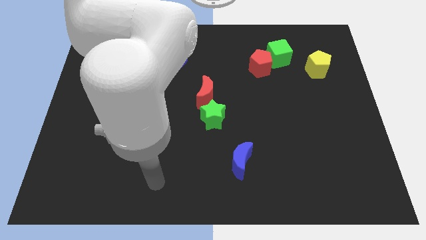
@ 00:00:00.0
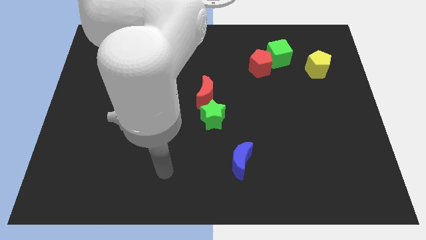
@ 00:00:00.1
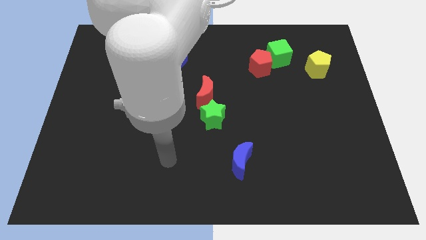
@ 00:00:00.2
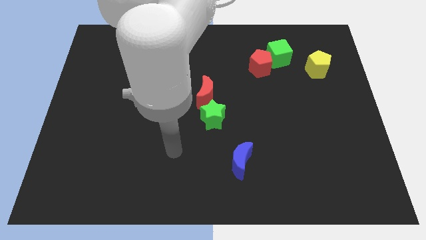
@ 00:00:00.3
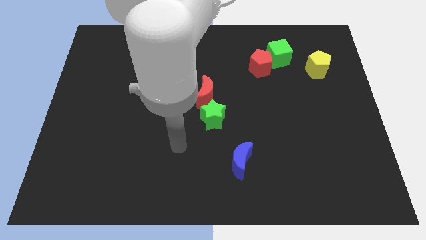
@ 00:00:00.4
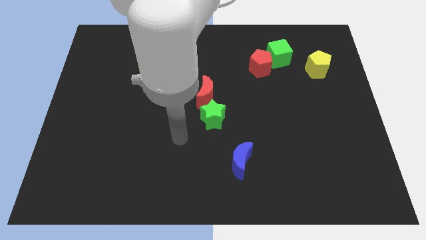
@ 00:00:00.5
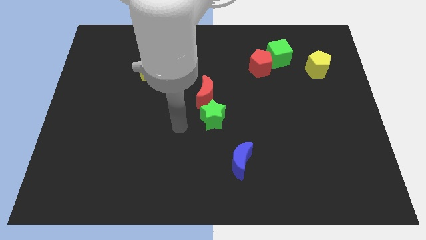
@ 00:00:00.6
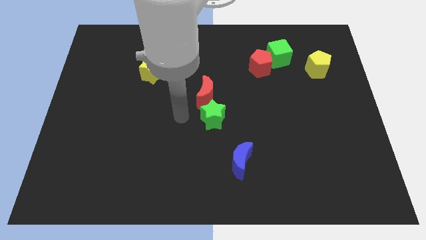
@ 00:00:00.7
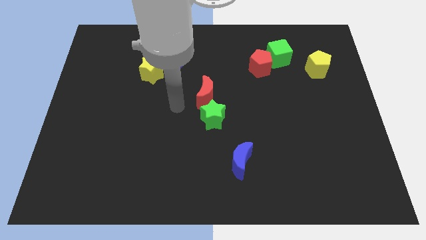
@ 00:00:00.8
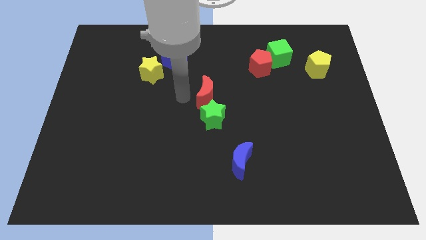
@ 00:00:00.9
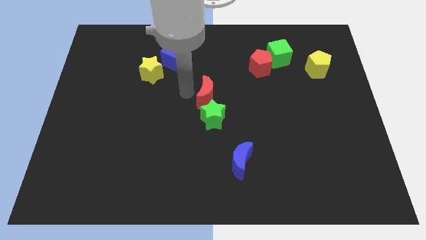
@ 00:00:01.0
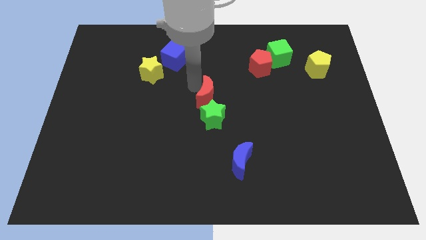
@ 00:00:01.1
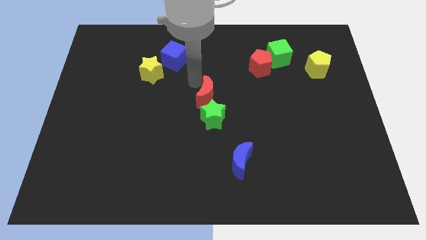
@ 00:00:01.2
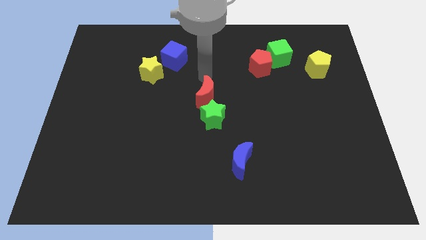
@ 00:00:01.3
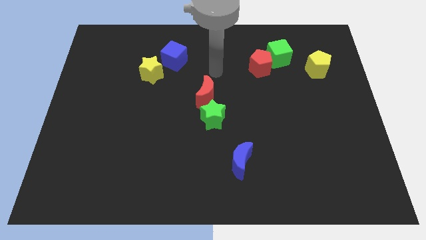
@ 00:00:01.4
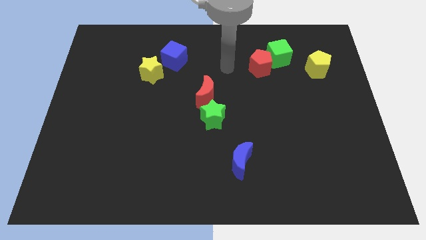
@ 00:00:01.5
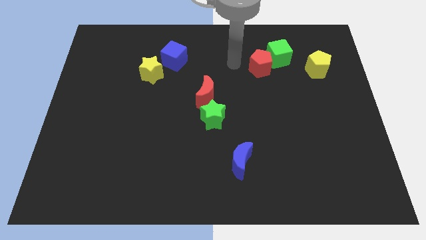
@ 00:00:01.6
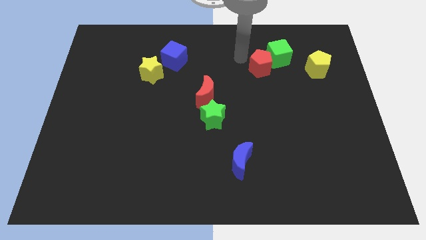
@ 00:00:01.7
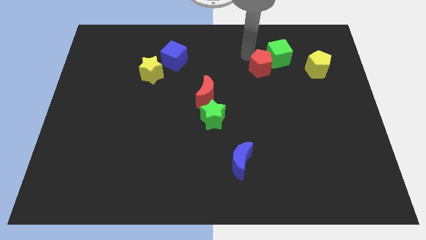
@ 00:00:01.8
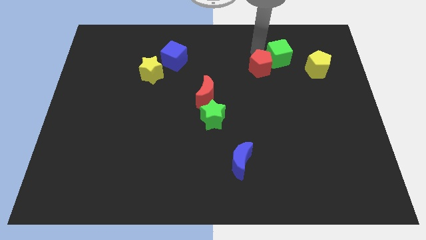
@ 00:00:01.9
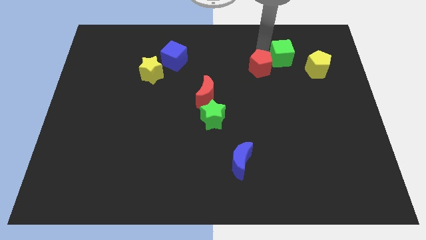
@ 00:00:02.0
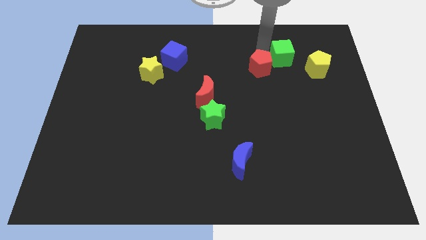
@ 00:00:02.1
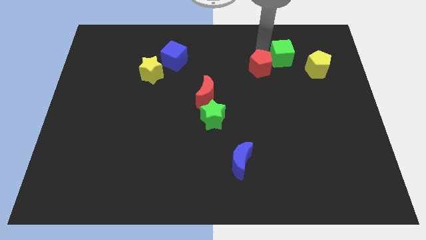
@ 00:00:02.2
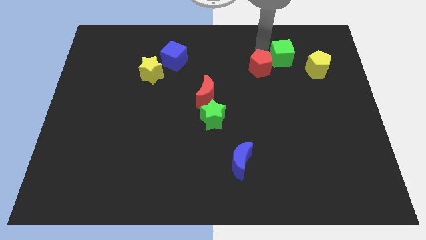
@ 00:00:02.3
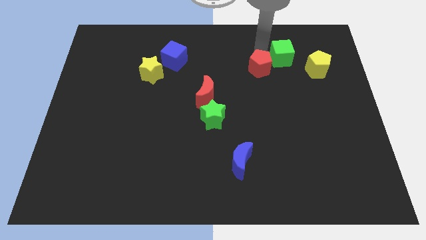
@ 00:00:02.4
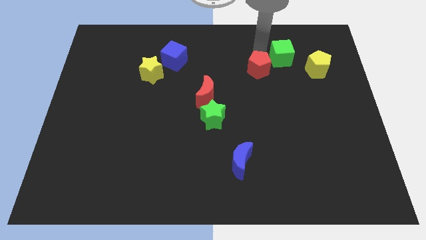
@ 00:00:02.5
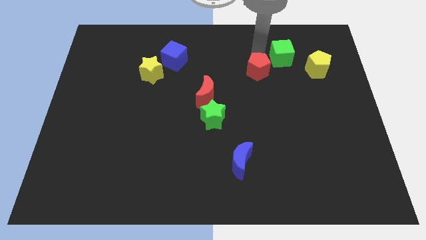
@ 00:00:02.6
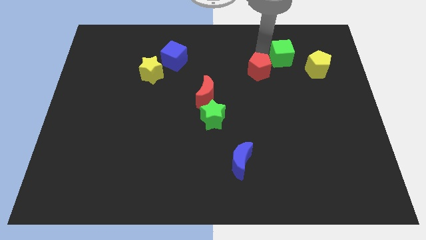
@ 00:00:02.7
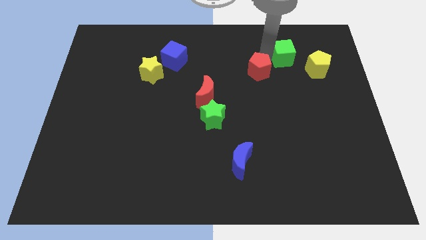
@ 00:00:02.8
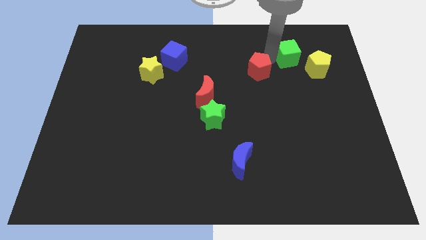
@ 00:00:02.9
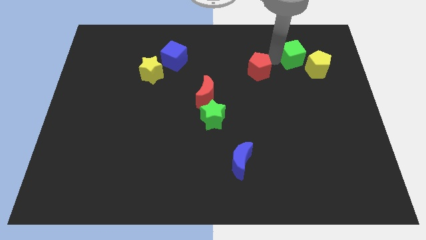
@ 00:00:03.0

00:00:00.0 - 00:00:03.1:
pull the red pentagon apart from the green cube

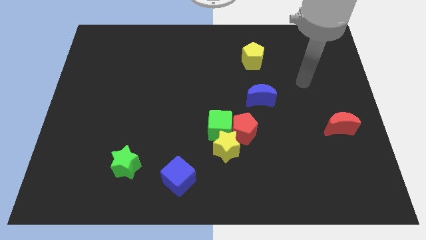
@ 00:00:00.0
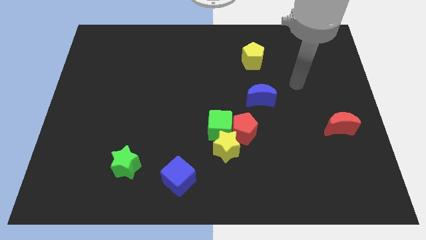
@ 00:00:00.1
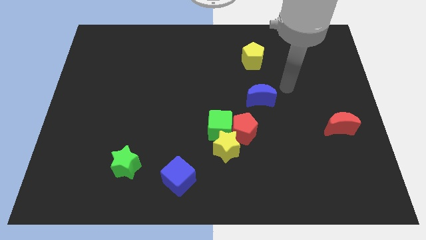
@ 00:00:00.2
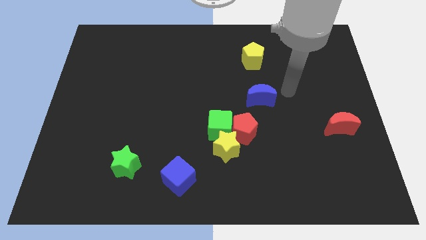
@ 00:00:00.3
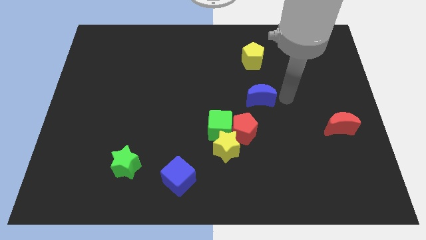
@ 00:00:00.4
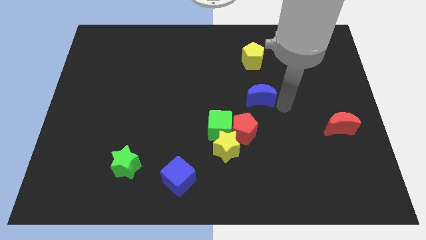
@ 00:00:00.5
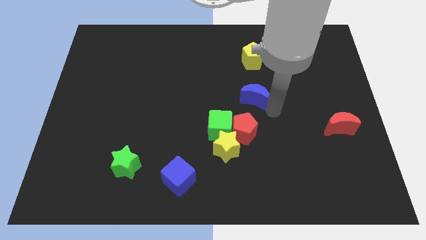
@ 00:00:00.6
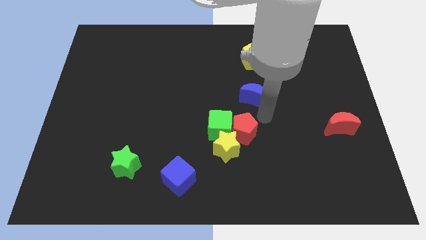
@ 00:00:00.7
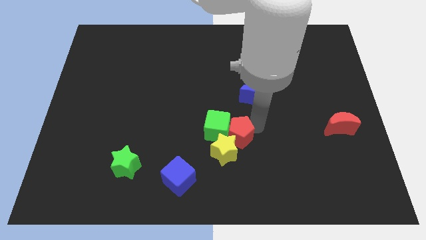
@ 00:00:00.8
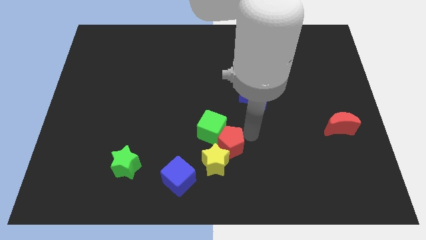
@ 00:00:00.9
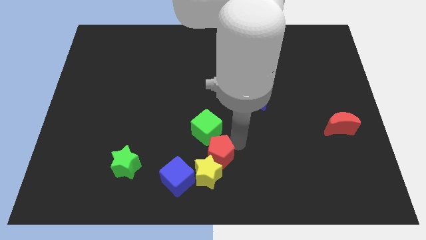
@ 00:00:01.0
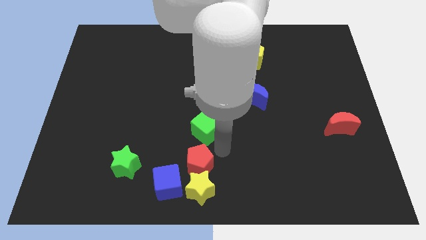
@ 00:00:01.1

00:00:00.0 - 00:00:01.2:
separate the green cube from the red pentagon and yellow star

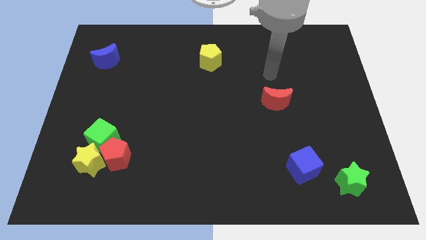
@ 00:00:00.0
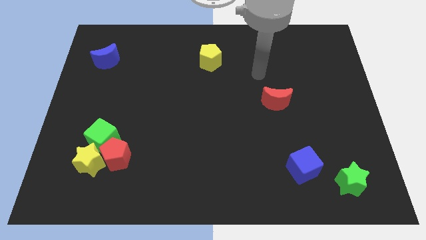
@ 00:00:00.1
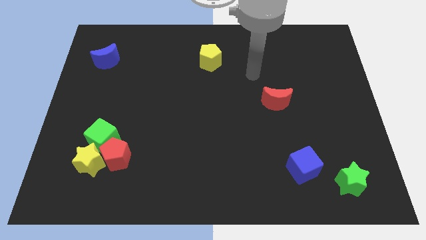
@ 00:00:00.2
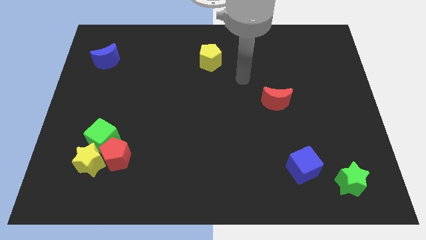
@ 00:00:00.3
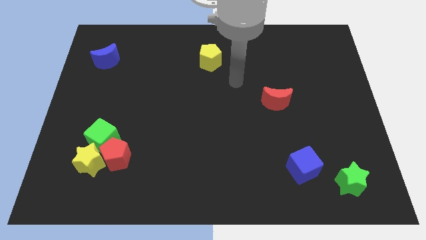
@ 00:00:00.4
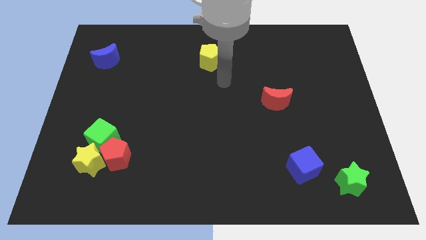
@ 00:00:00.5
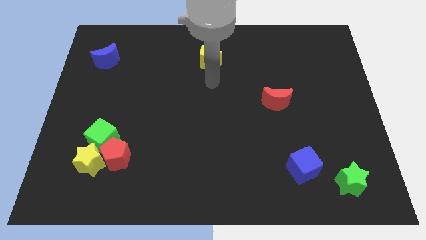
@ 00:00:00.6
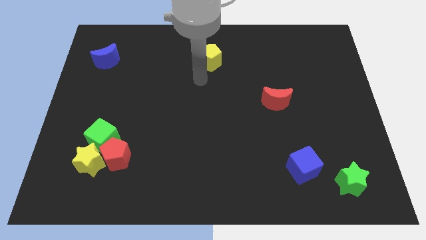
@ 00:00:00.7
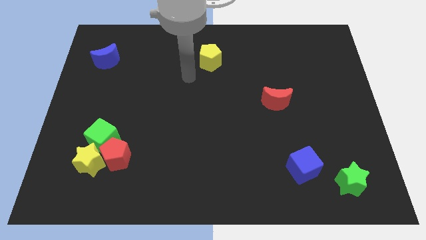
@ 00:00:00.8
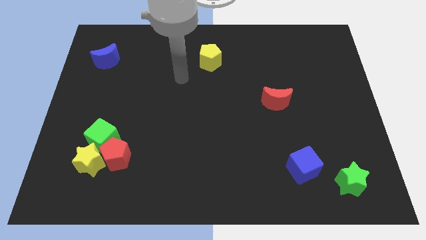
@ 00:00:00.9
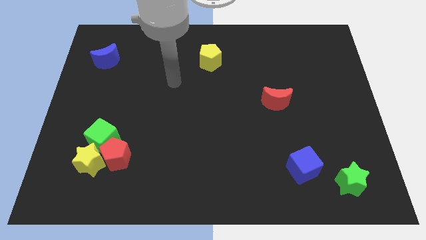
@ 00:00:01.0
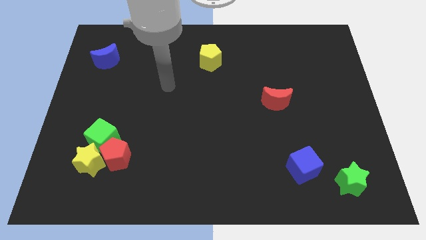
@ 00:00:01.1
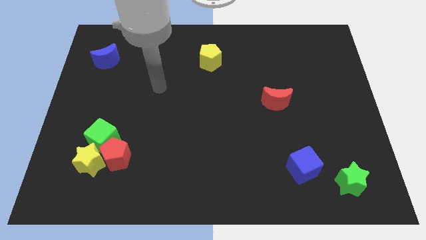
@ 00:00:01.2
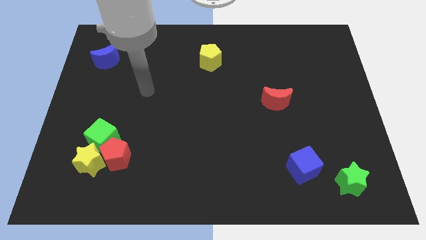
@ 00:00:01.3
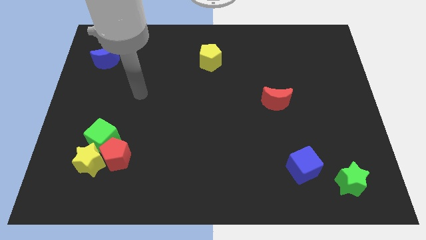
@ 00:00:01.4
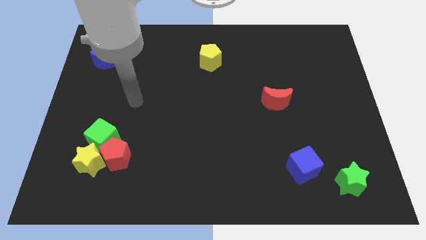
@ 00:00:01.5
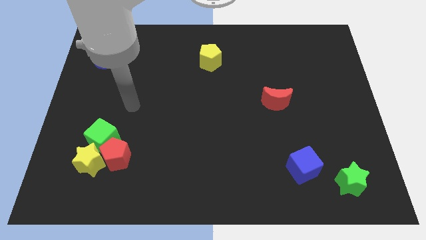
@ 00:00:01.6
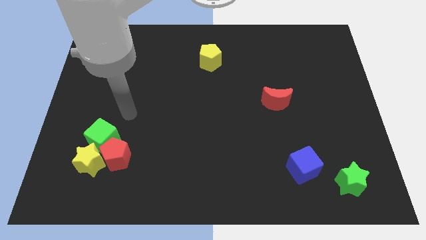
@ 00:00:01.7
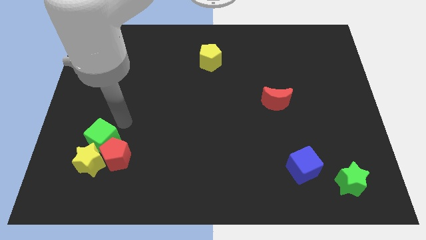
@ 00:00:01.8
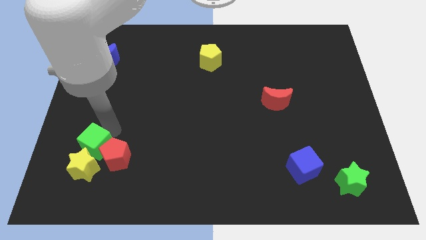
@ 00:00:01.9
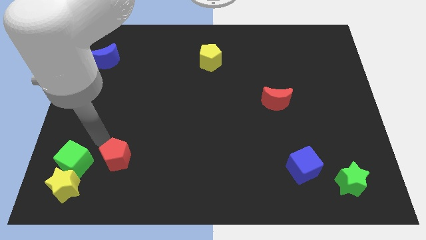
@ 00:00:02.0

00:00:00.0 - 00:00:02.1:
separate the red pentagon from the yellow star and green cube

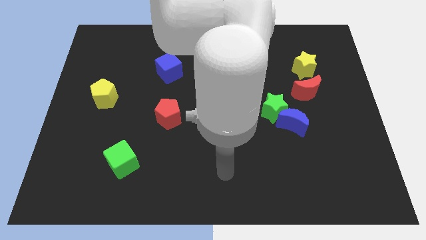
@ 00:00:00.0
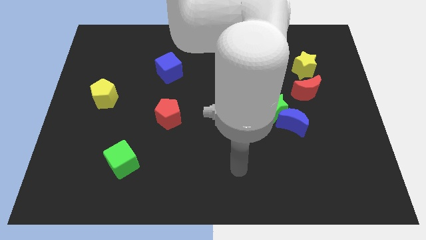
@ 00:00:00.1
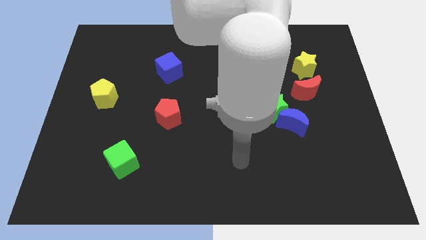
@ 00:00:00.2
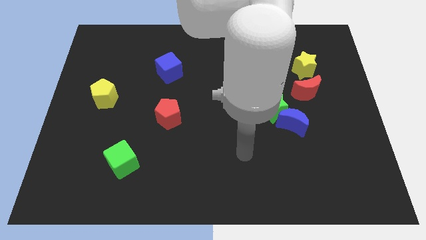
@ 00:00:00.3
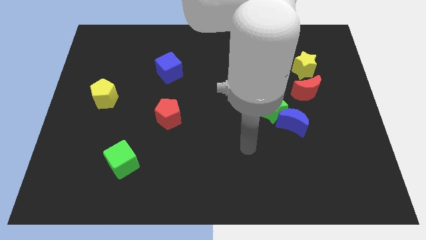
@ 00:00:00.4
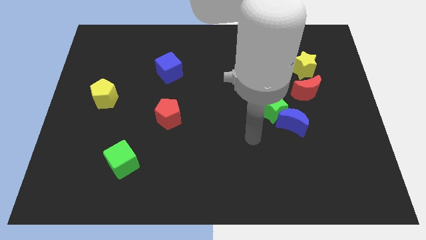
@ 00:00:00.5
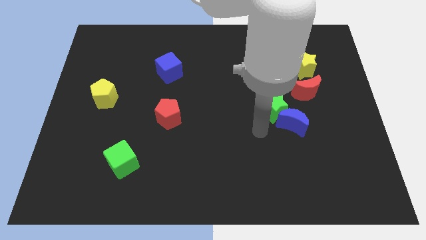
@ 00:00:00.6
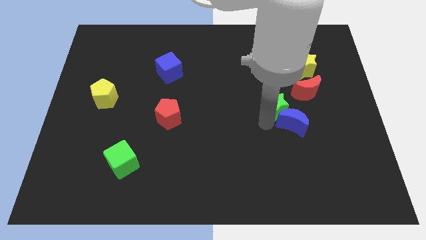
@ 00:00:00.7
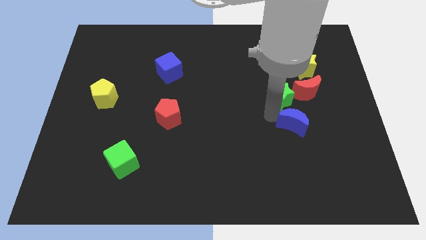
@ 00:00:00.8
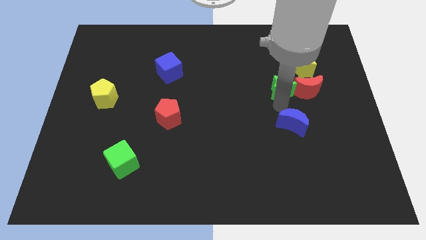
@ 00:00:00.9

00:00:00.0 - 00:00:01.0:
pull the blue moon apart from the green star

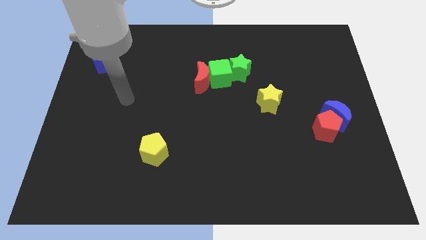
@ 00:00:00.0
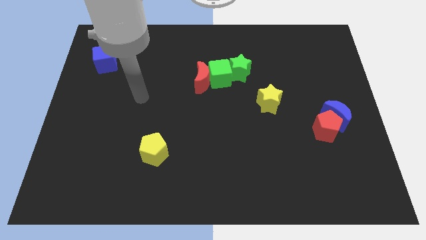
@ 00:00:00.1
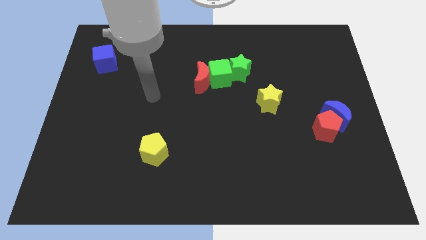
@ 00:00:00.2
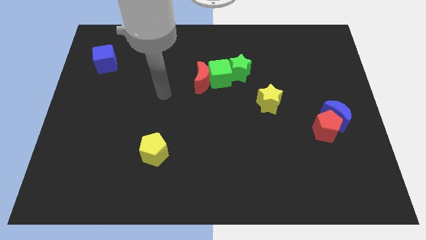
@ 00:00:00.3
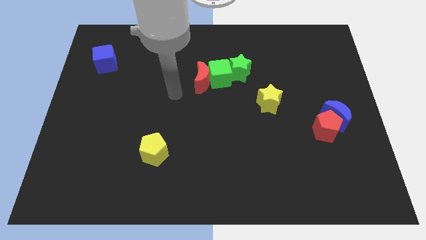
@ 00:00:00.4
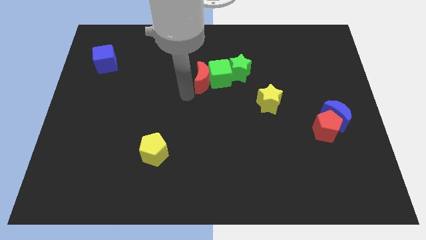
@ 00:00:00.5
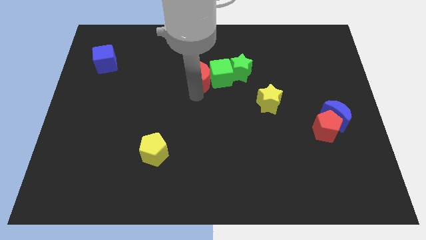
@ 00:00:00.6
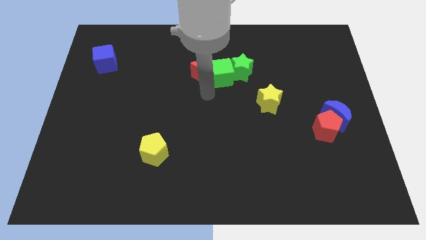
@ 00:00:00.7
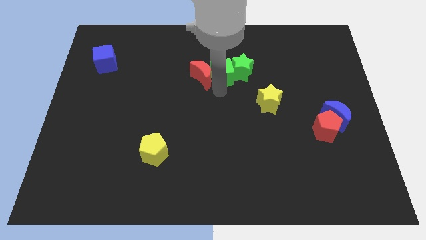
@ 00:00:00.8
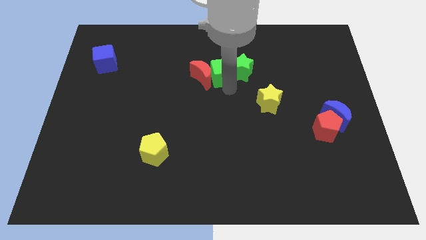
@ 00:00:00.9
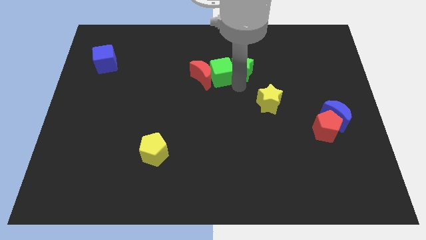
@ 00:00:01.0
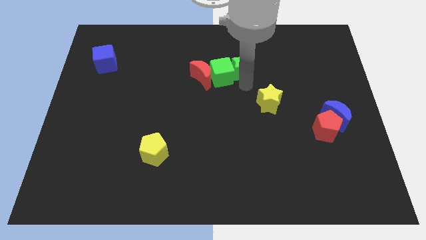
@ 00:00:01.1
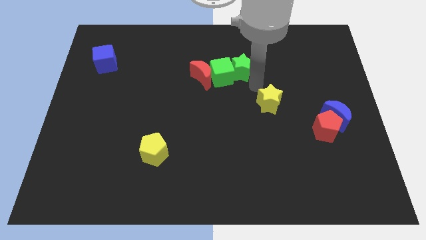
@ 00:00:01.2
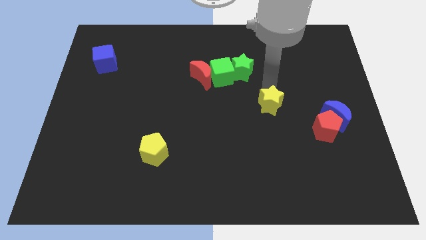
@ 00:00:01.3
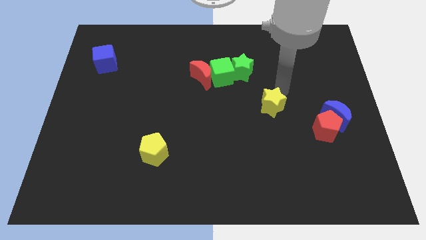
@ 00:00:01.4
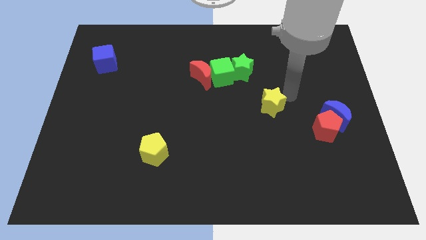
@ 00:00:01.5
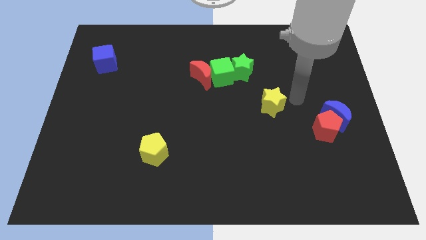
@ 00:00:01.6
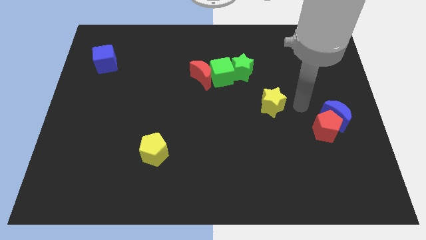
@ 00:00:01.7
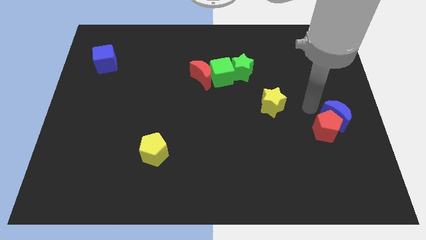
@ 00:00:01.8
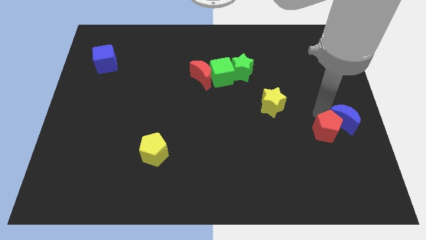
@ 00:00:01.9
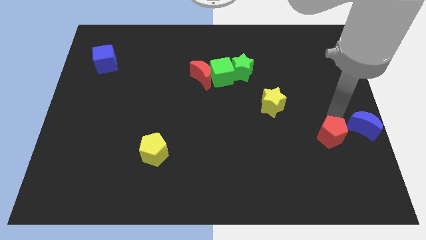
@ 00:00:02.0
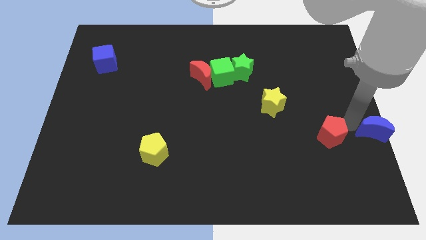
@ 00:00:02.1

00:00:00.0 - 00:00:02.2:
separate the red pentagon from the blue moon
